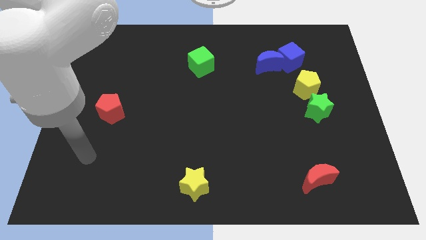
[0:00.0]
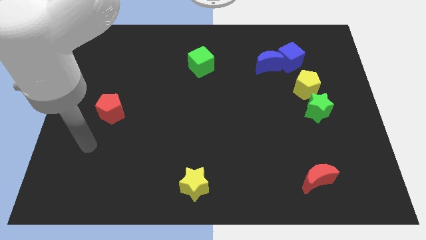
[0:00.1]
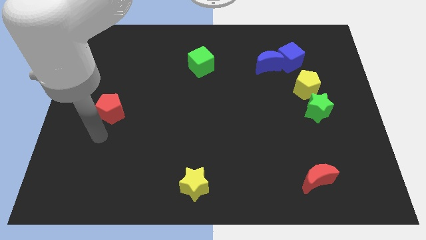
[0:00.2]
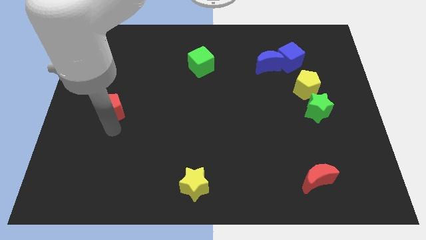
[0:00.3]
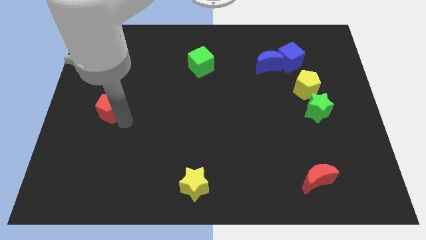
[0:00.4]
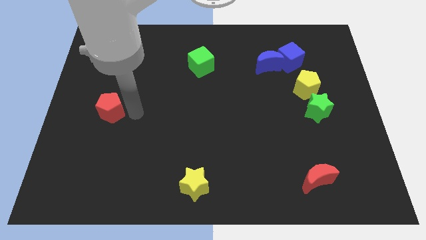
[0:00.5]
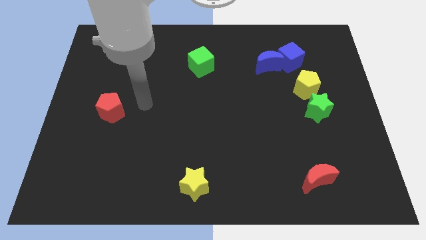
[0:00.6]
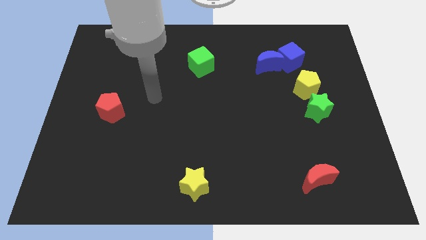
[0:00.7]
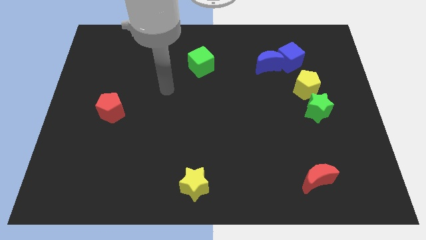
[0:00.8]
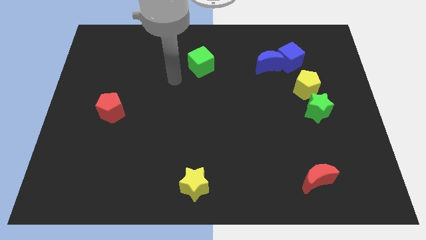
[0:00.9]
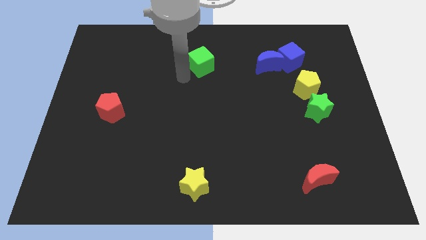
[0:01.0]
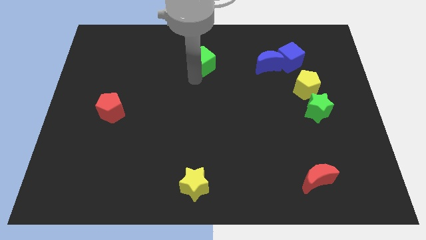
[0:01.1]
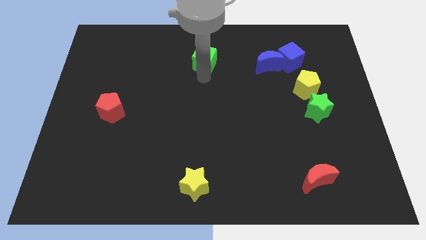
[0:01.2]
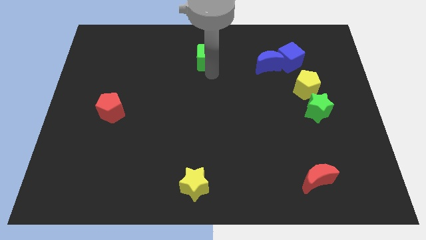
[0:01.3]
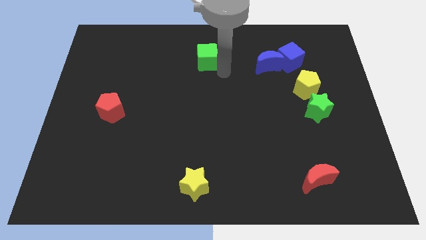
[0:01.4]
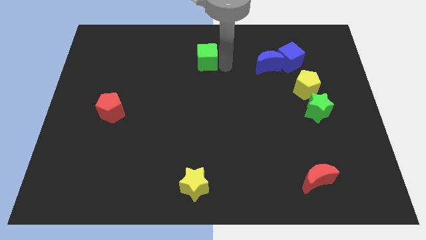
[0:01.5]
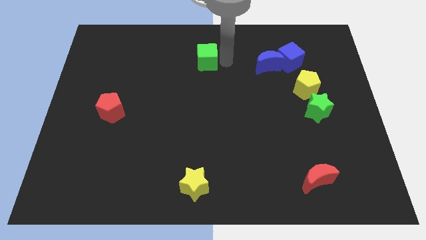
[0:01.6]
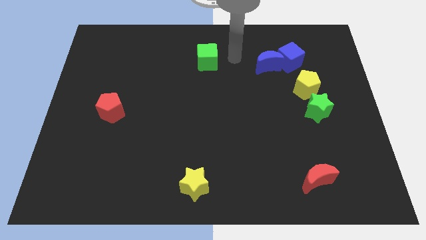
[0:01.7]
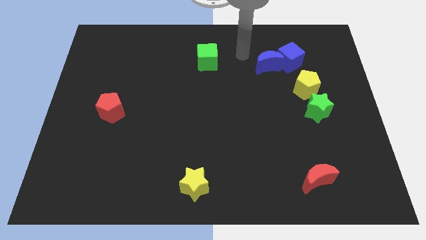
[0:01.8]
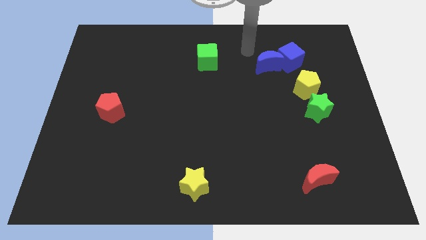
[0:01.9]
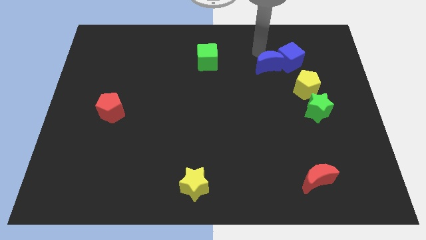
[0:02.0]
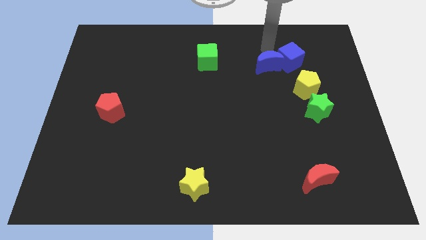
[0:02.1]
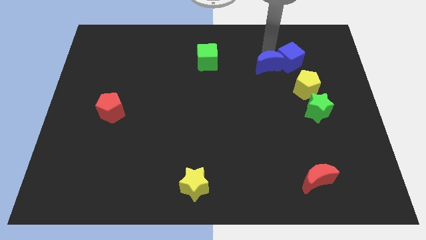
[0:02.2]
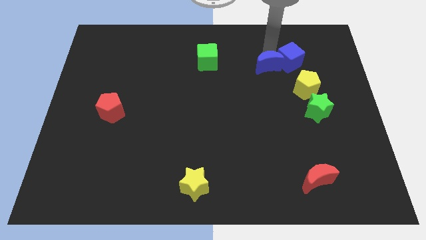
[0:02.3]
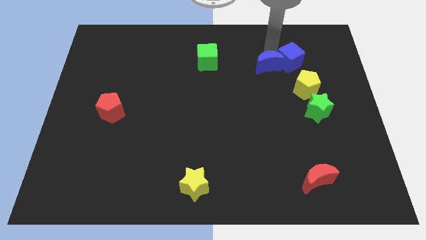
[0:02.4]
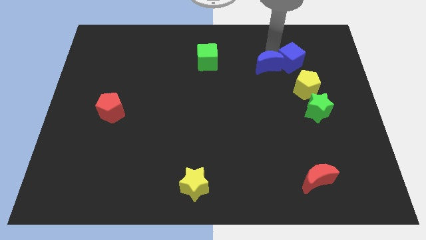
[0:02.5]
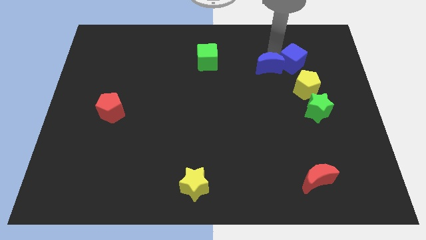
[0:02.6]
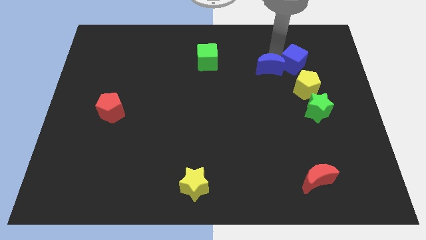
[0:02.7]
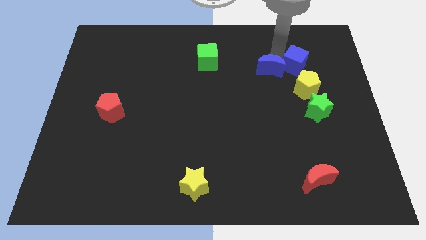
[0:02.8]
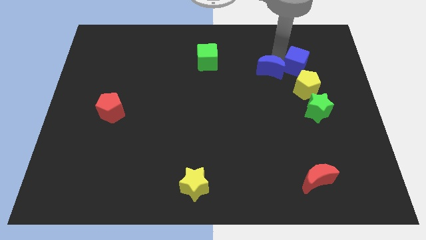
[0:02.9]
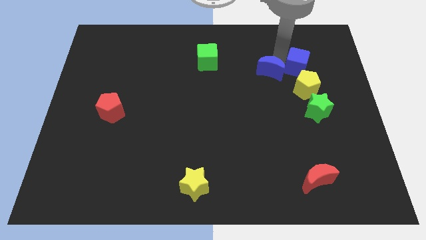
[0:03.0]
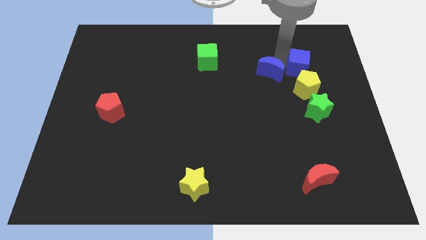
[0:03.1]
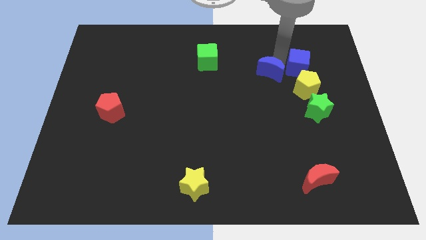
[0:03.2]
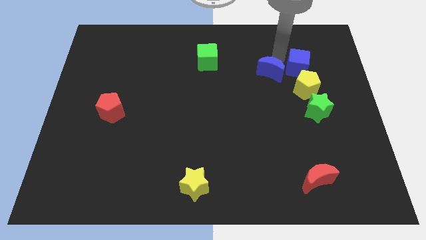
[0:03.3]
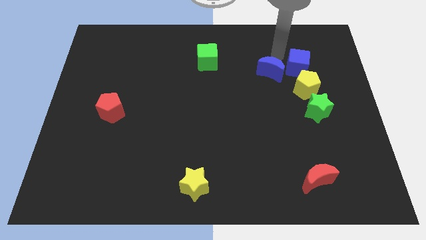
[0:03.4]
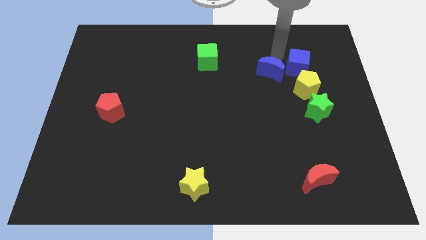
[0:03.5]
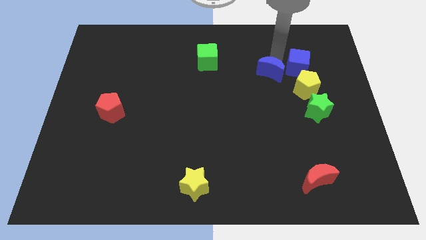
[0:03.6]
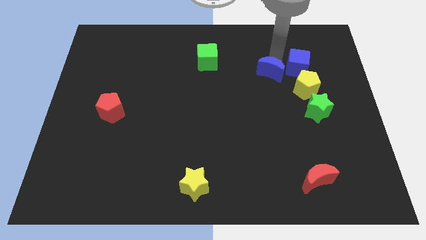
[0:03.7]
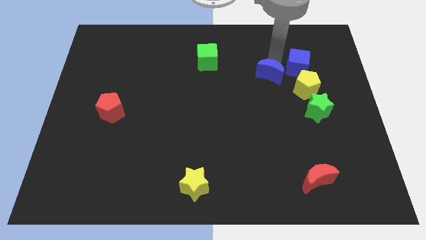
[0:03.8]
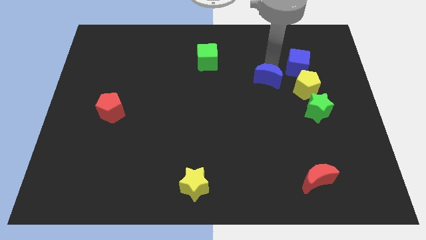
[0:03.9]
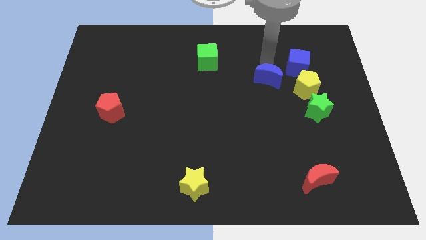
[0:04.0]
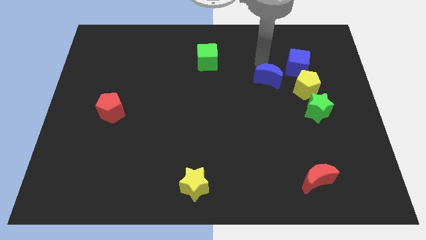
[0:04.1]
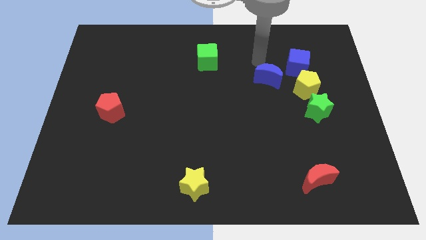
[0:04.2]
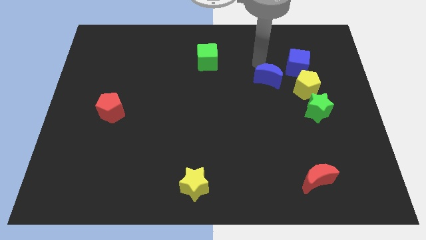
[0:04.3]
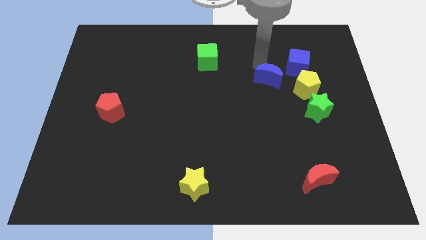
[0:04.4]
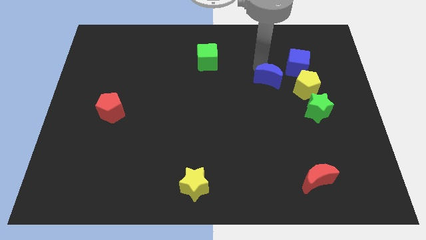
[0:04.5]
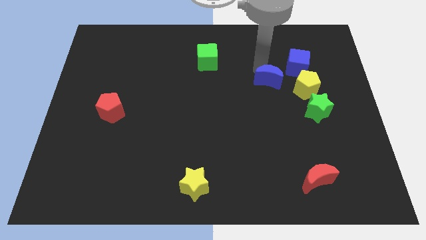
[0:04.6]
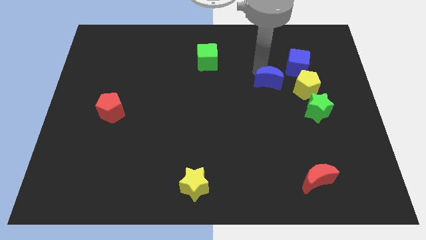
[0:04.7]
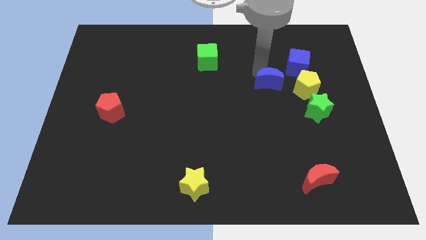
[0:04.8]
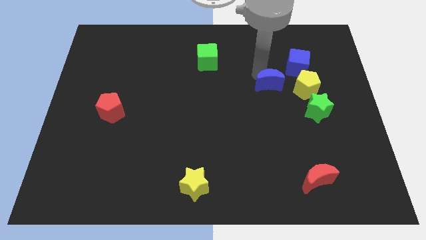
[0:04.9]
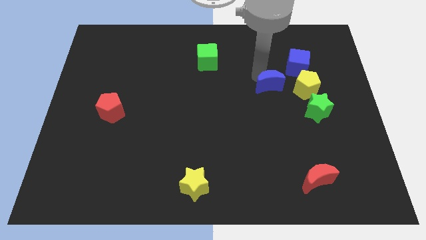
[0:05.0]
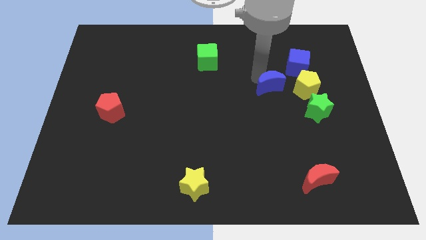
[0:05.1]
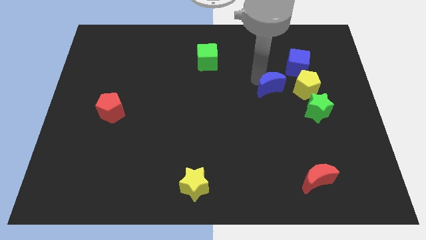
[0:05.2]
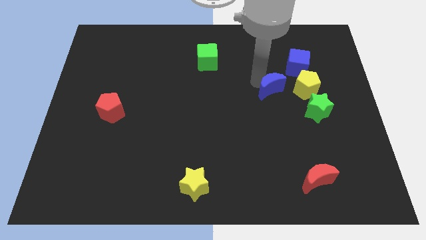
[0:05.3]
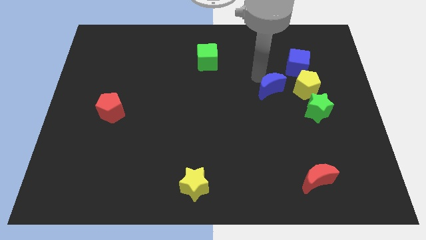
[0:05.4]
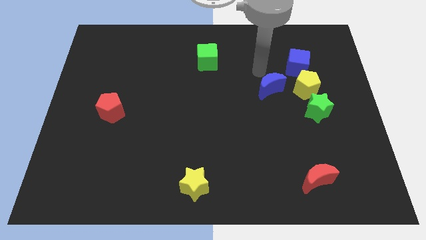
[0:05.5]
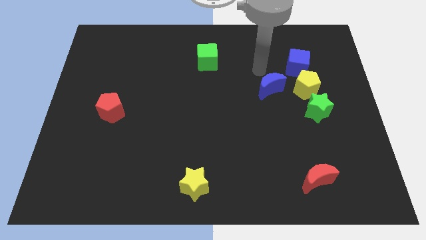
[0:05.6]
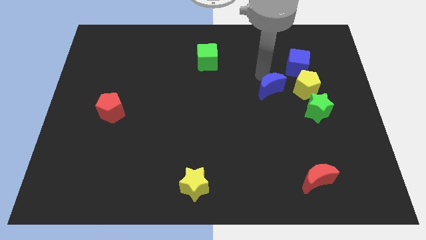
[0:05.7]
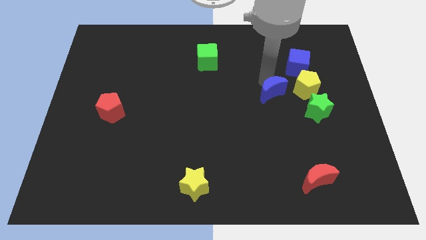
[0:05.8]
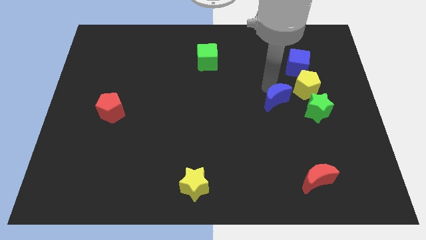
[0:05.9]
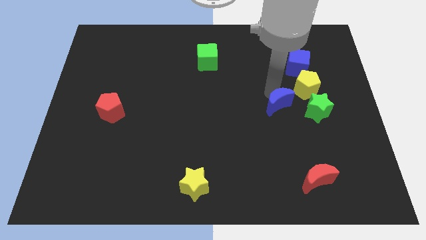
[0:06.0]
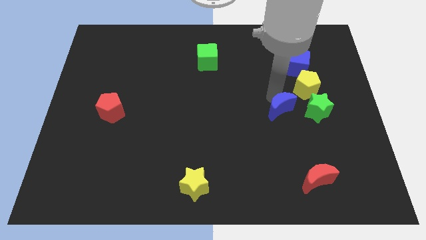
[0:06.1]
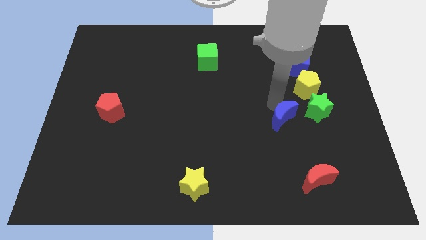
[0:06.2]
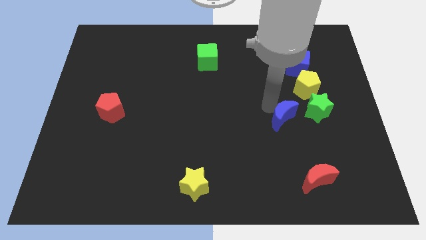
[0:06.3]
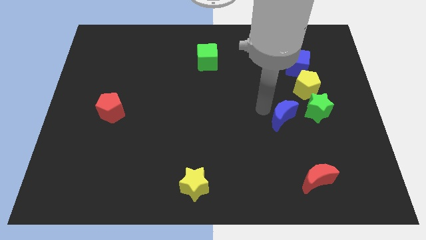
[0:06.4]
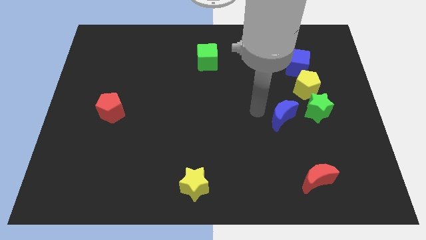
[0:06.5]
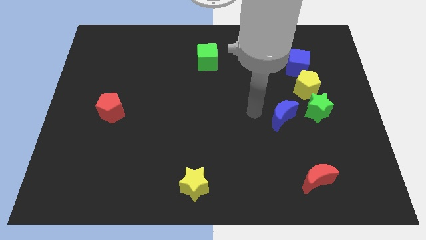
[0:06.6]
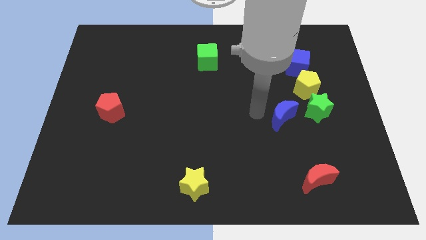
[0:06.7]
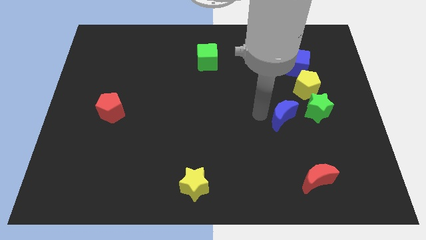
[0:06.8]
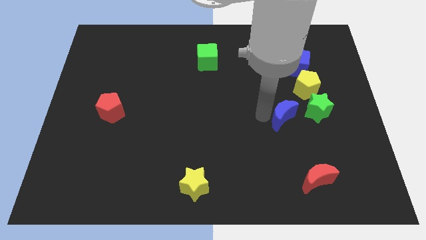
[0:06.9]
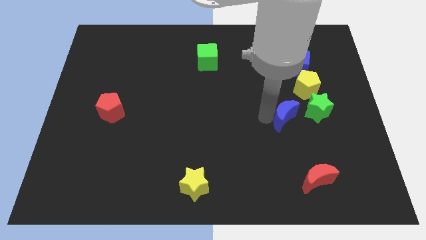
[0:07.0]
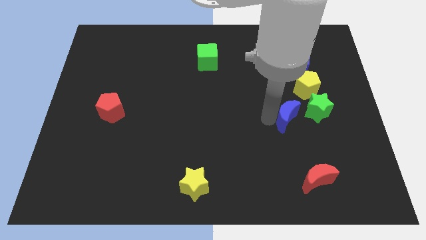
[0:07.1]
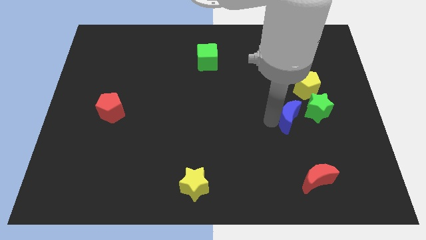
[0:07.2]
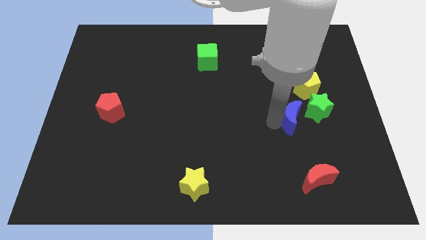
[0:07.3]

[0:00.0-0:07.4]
push the blue moon below the yellow pentagon
